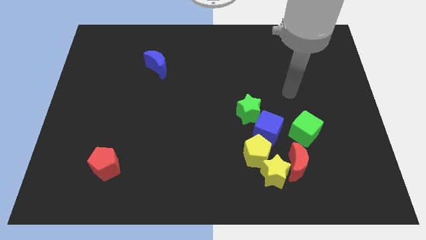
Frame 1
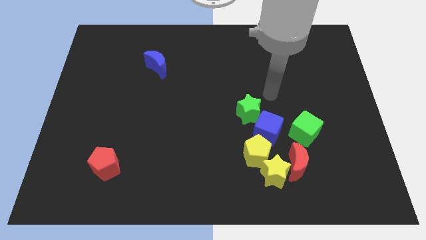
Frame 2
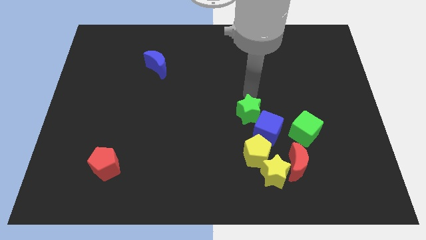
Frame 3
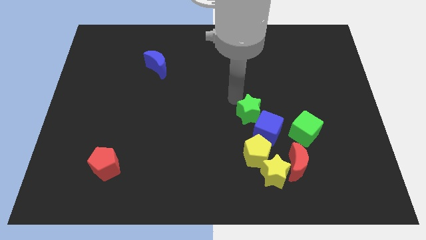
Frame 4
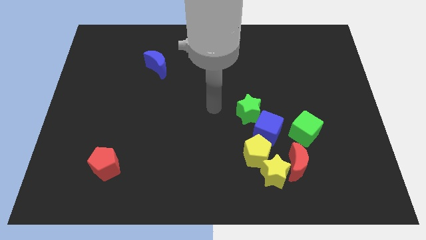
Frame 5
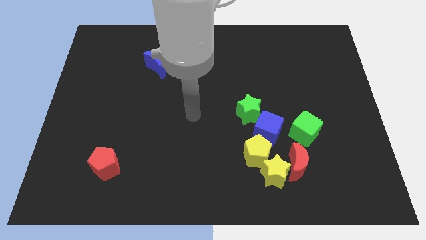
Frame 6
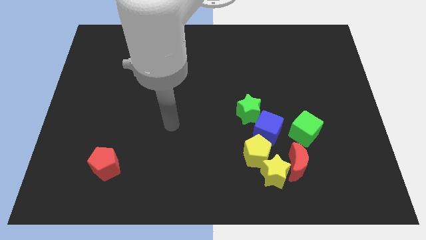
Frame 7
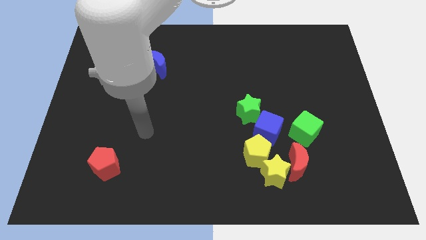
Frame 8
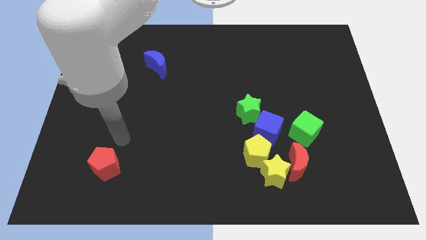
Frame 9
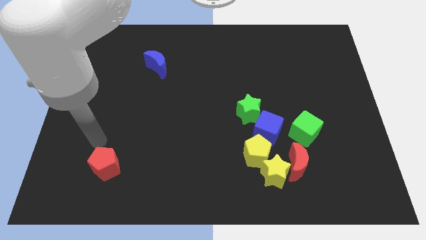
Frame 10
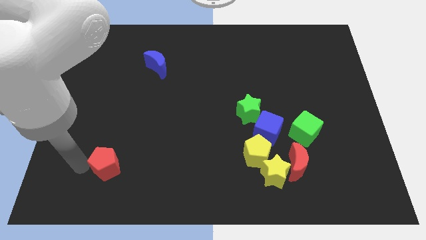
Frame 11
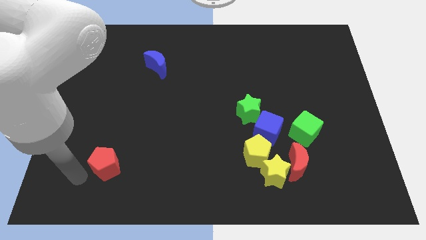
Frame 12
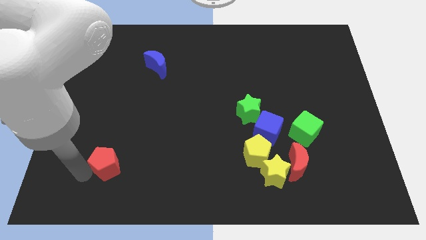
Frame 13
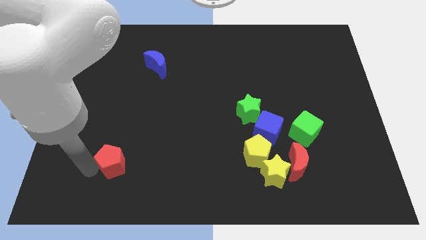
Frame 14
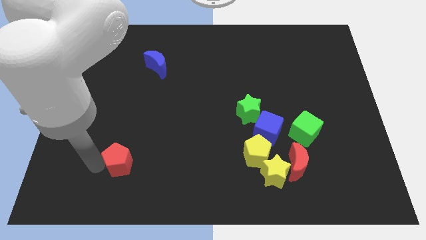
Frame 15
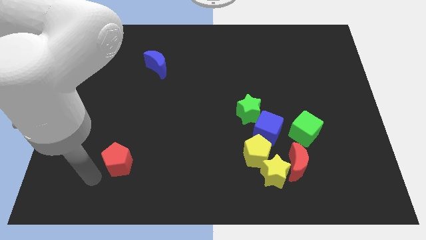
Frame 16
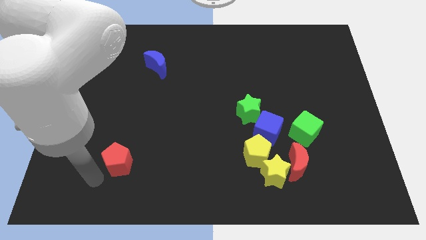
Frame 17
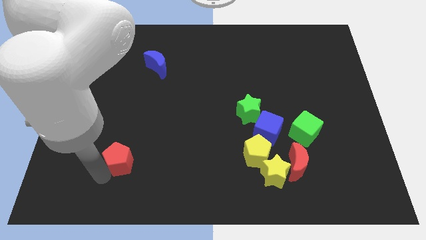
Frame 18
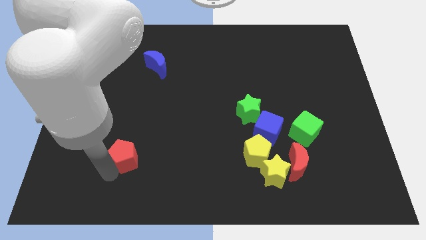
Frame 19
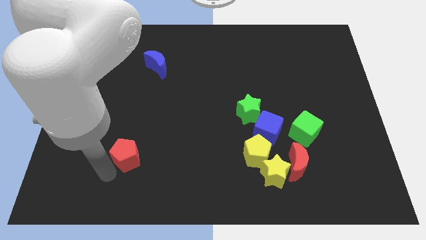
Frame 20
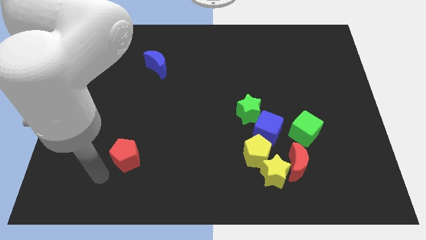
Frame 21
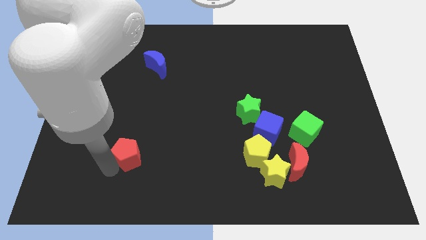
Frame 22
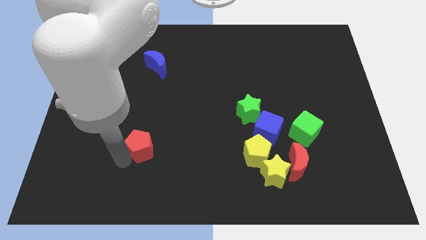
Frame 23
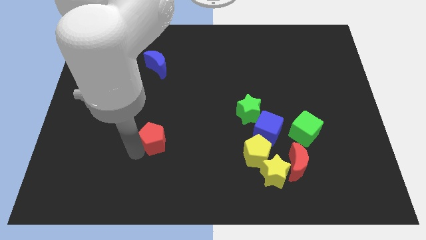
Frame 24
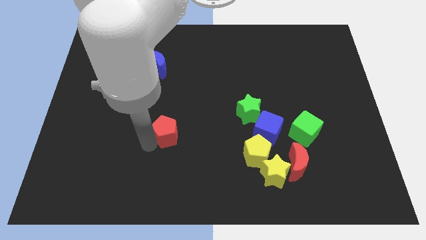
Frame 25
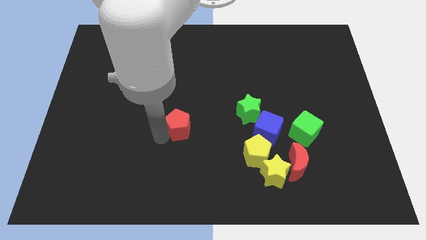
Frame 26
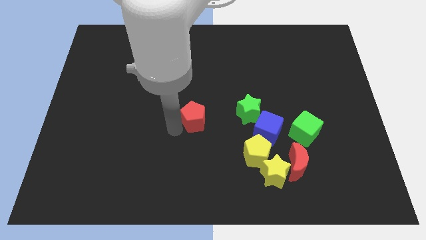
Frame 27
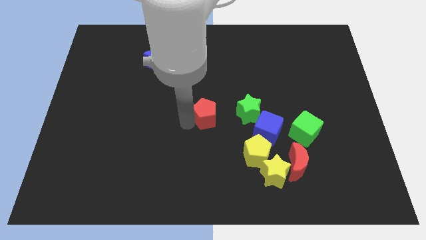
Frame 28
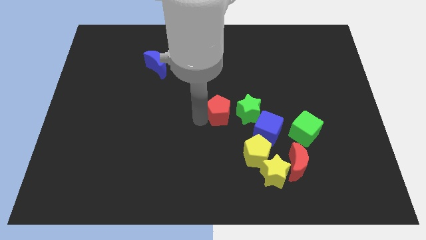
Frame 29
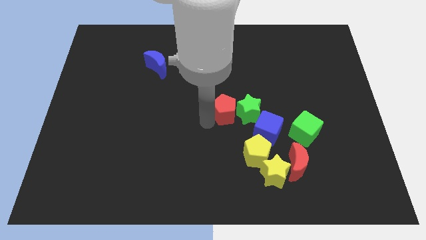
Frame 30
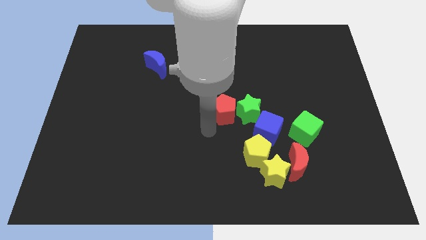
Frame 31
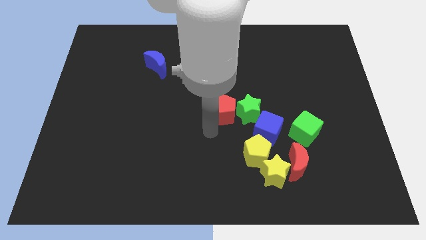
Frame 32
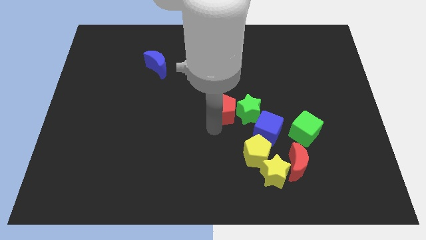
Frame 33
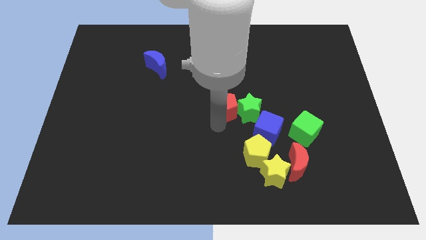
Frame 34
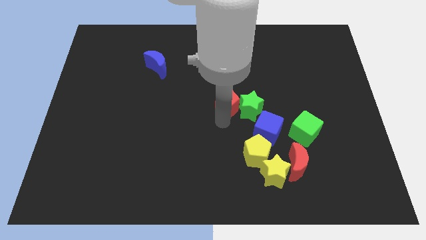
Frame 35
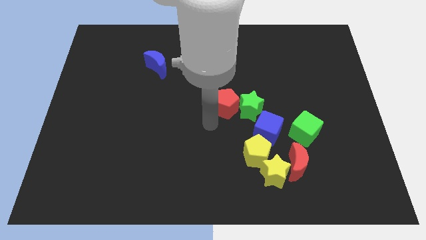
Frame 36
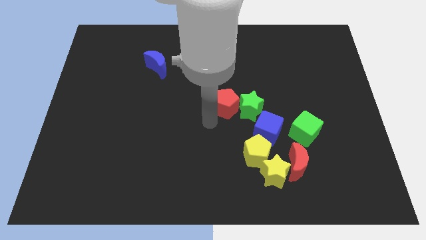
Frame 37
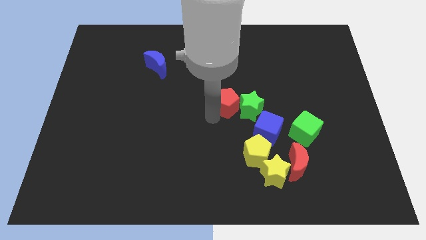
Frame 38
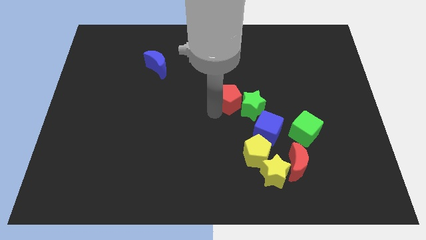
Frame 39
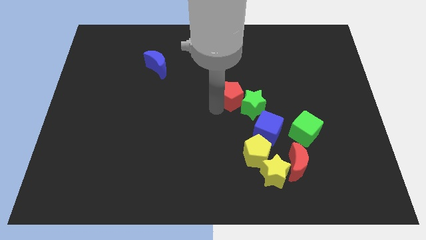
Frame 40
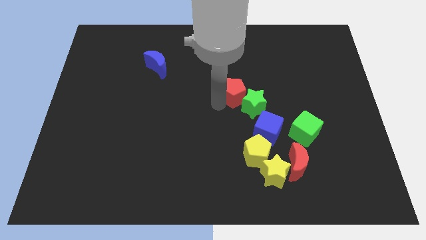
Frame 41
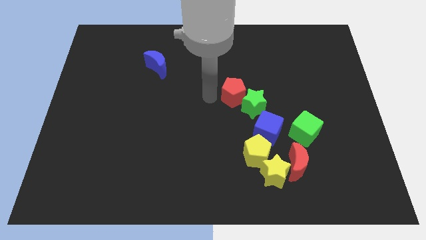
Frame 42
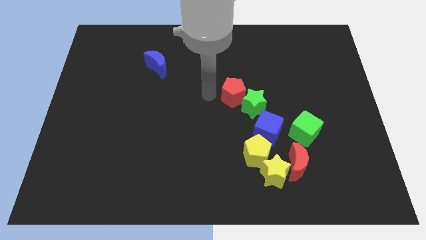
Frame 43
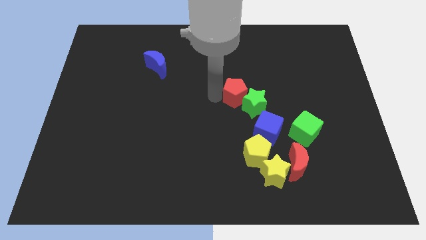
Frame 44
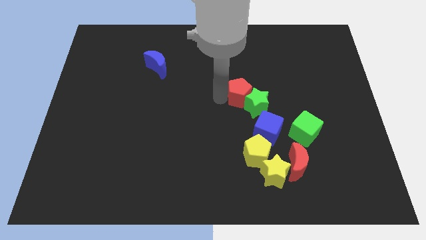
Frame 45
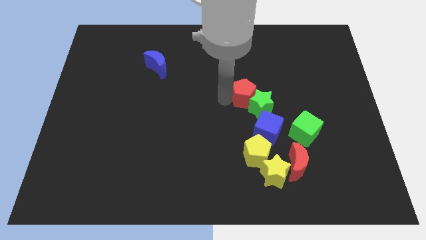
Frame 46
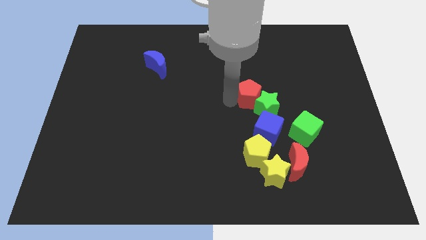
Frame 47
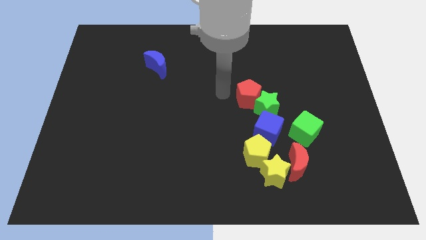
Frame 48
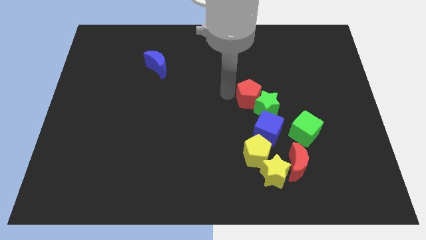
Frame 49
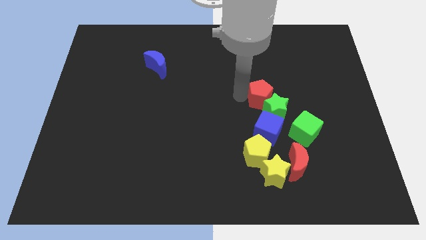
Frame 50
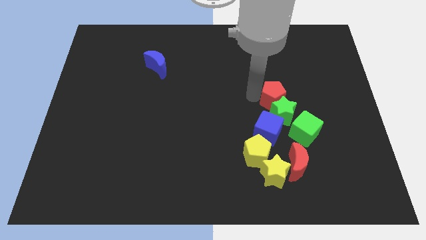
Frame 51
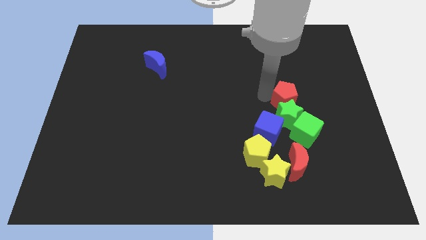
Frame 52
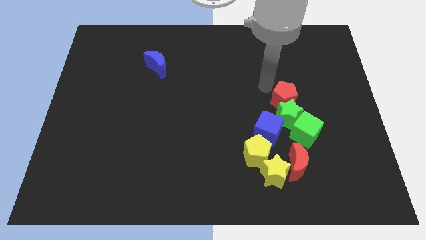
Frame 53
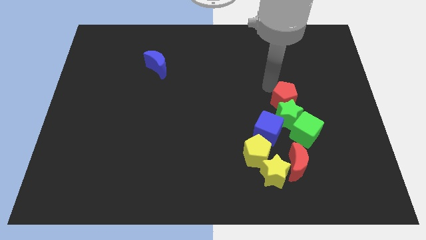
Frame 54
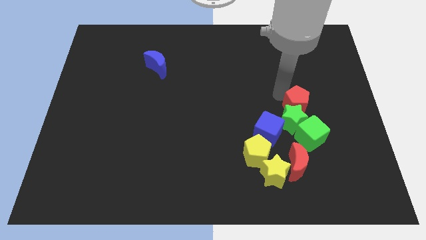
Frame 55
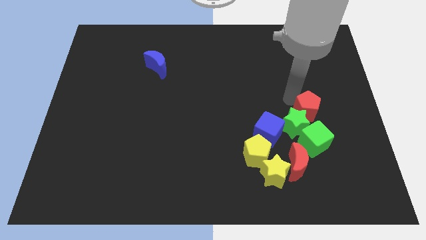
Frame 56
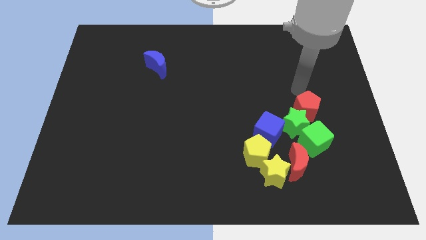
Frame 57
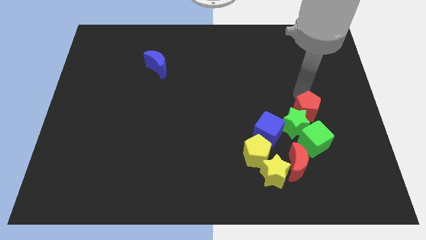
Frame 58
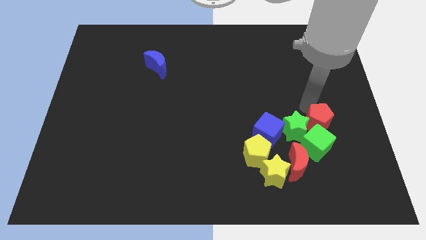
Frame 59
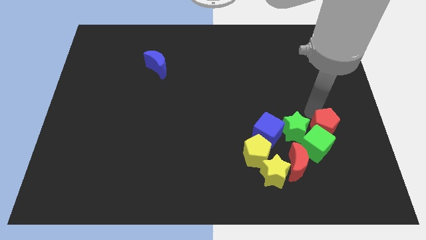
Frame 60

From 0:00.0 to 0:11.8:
slide the red pentagon towards the green cube

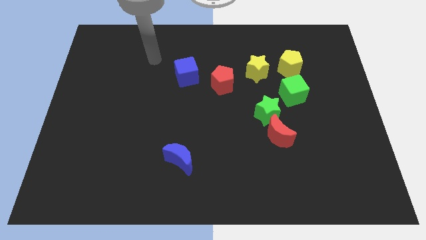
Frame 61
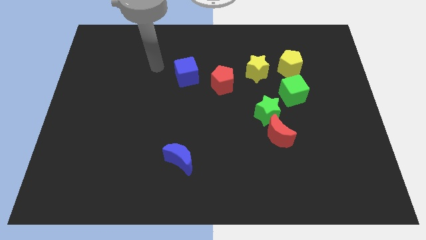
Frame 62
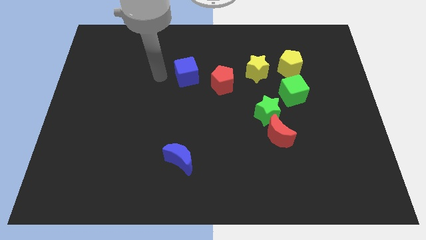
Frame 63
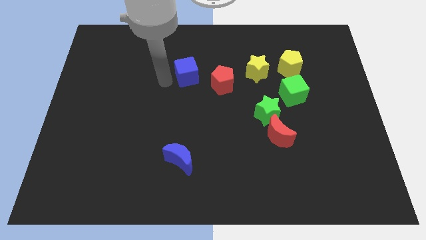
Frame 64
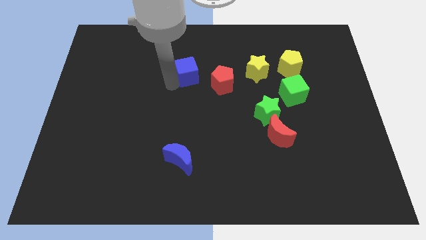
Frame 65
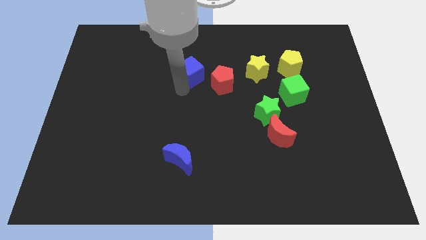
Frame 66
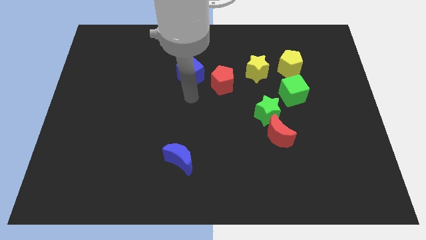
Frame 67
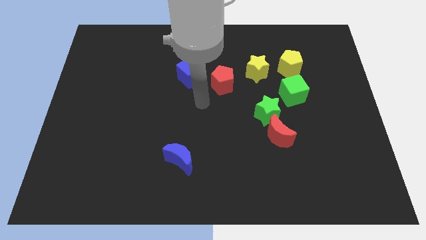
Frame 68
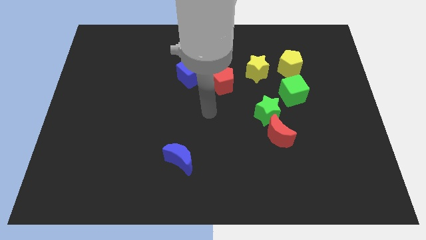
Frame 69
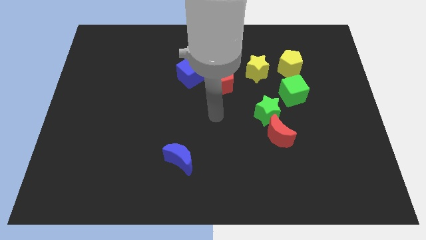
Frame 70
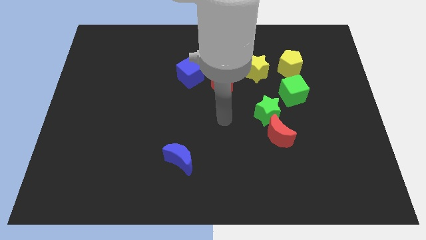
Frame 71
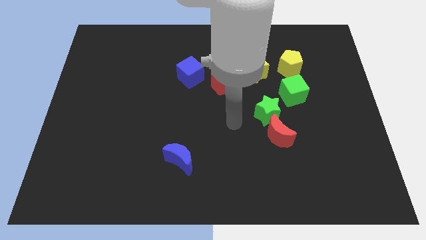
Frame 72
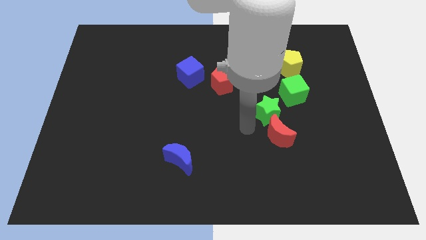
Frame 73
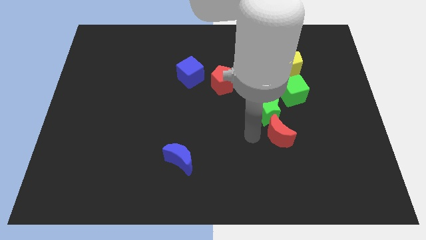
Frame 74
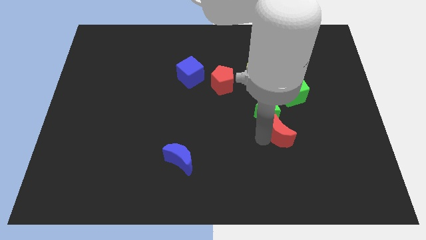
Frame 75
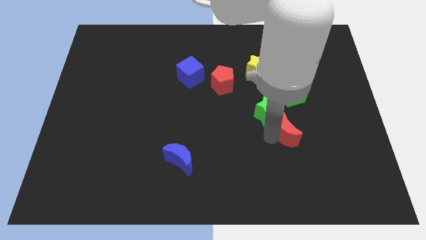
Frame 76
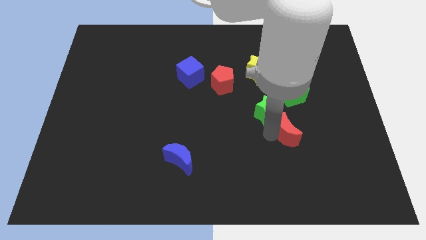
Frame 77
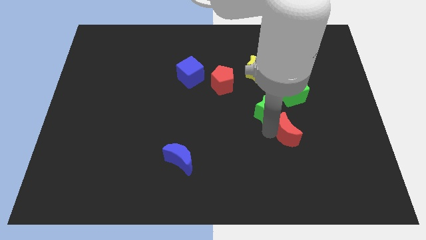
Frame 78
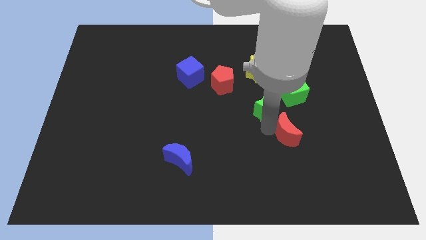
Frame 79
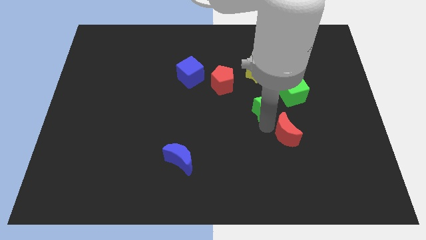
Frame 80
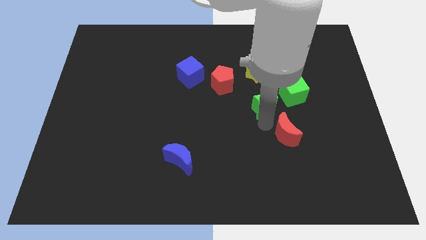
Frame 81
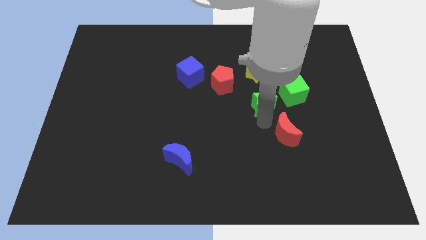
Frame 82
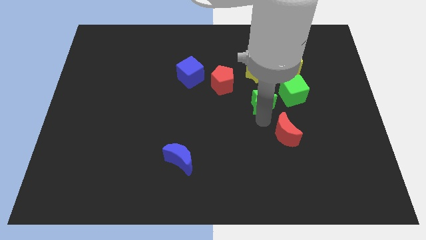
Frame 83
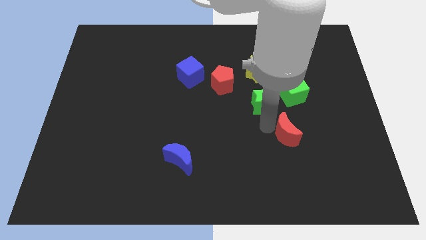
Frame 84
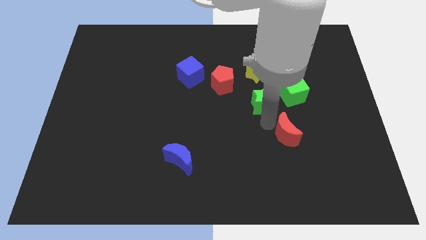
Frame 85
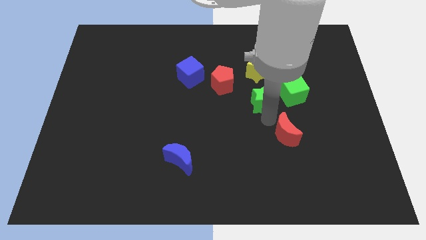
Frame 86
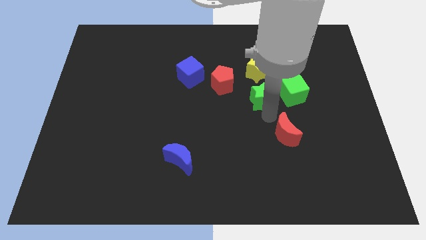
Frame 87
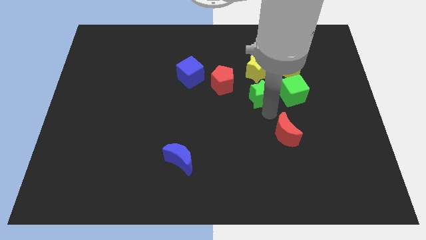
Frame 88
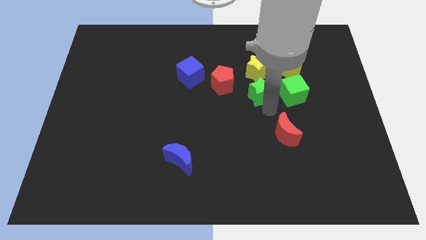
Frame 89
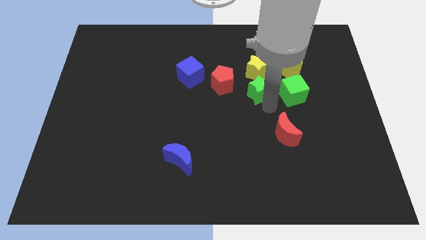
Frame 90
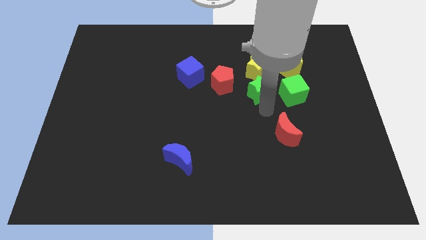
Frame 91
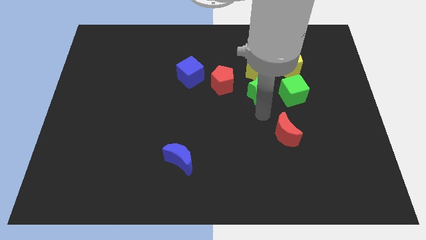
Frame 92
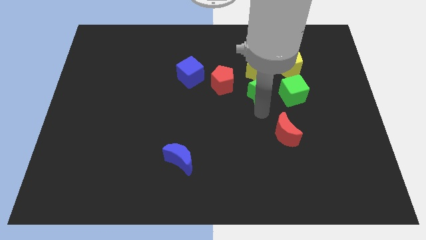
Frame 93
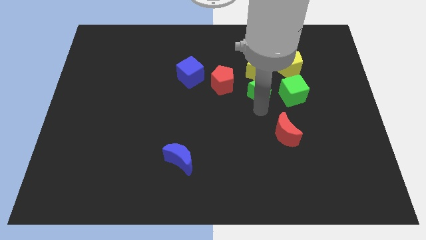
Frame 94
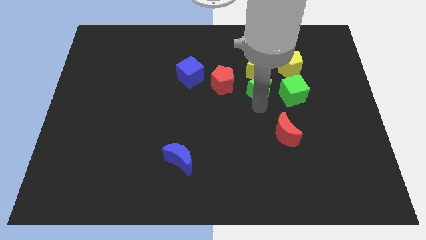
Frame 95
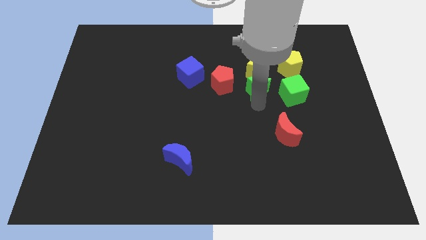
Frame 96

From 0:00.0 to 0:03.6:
slide the green star close to the yellow star
